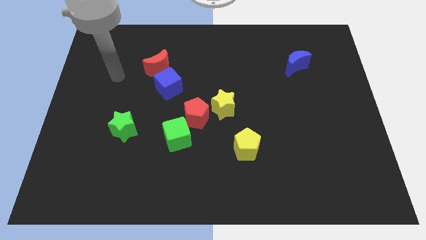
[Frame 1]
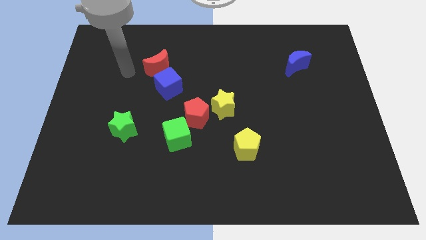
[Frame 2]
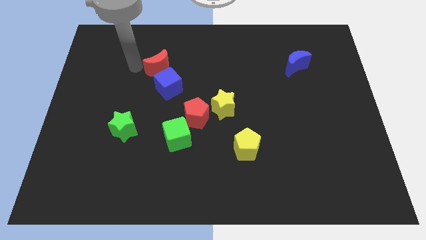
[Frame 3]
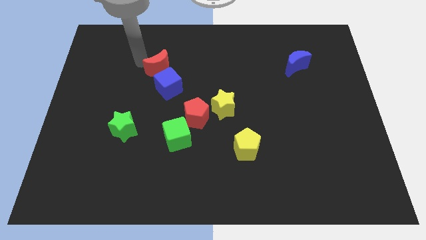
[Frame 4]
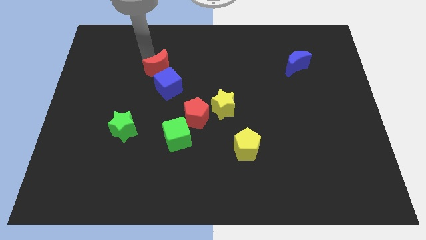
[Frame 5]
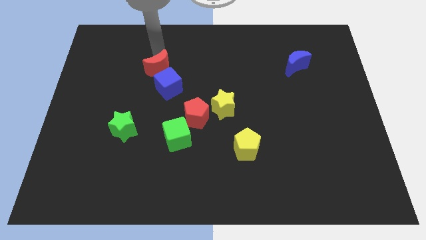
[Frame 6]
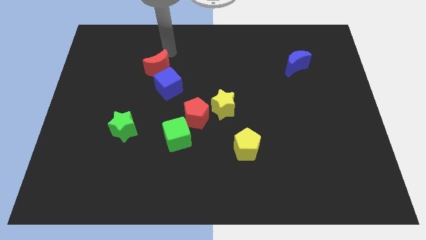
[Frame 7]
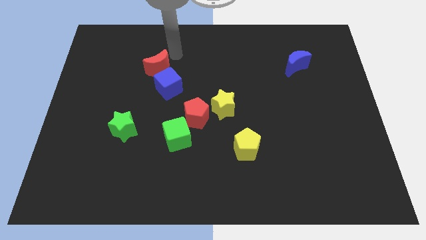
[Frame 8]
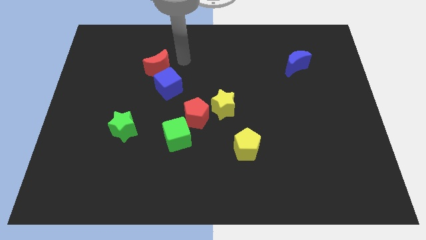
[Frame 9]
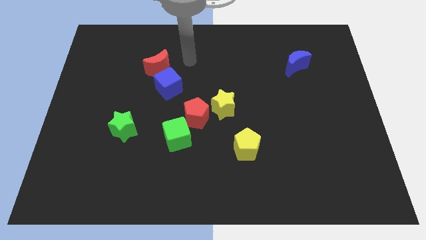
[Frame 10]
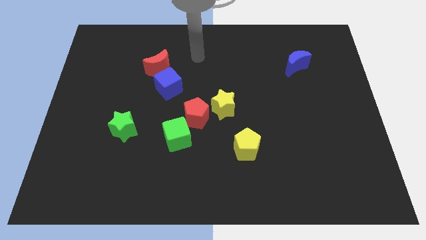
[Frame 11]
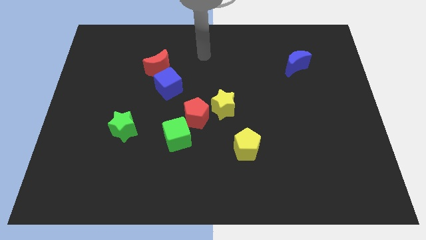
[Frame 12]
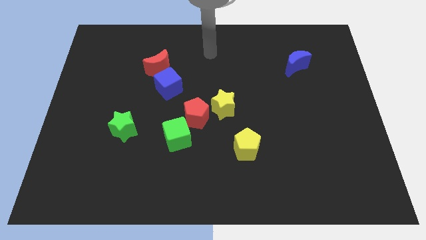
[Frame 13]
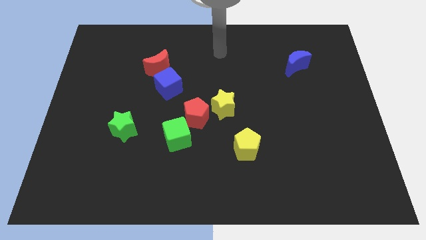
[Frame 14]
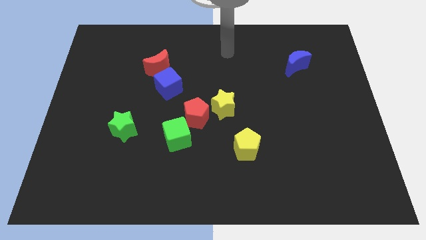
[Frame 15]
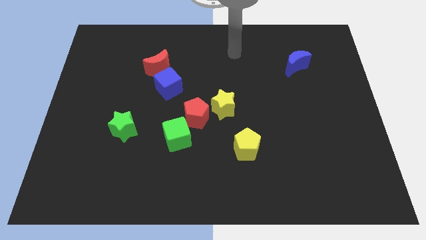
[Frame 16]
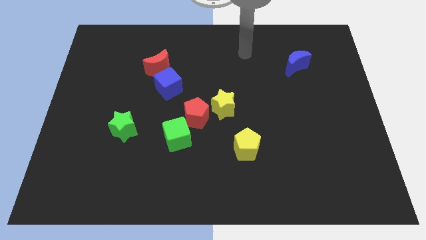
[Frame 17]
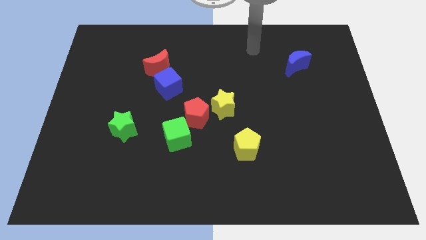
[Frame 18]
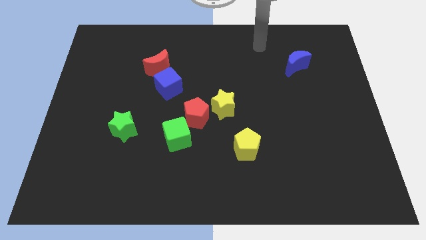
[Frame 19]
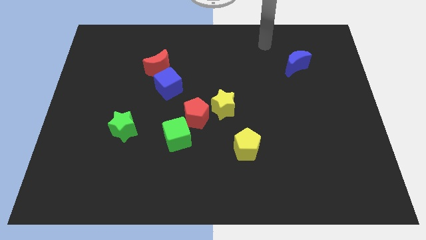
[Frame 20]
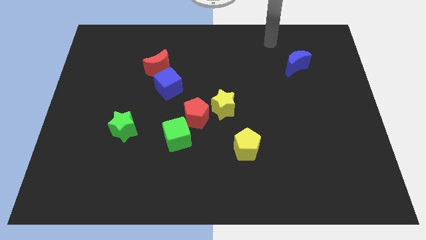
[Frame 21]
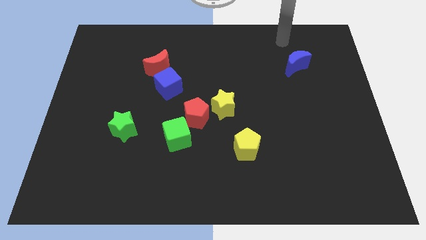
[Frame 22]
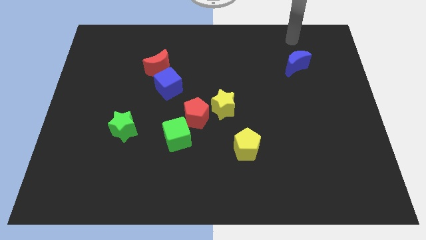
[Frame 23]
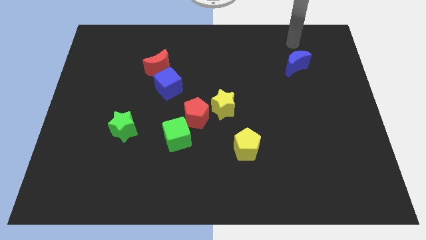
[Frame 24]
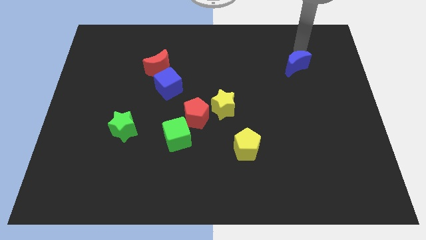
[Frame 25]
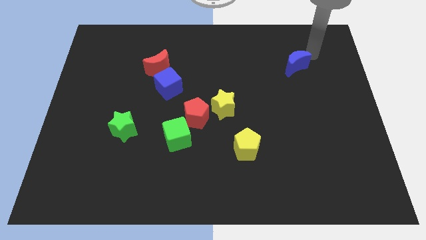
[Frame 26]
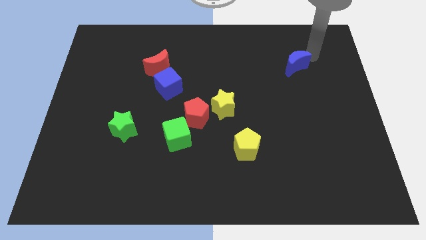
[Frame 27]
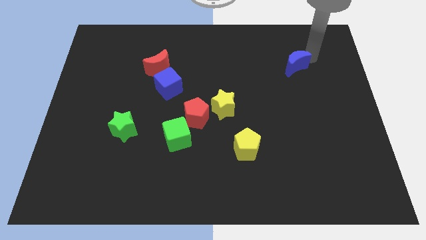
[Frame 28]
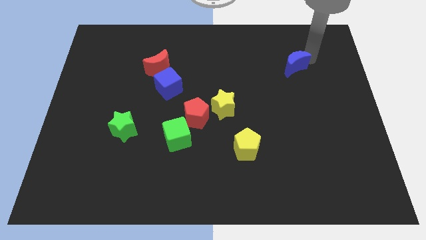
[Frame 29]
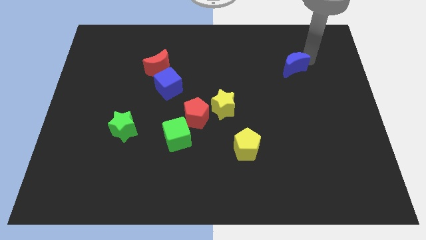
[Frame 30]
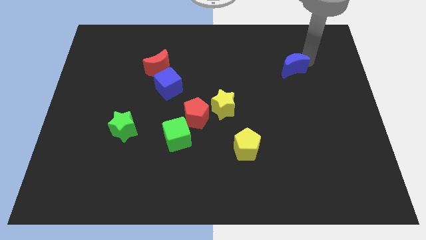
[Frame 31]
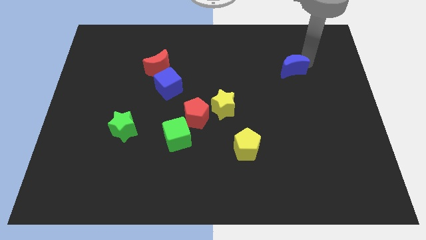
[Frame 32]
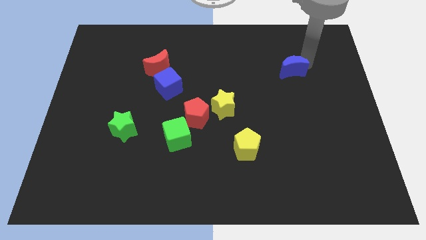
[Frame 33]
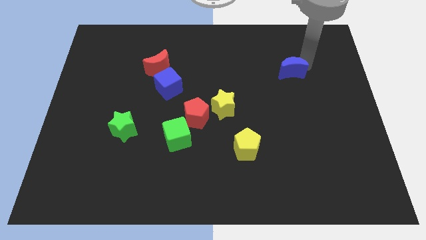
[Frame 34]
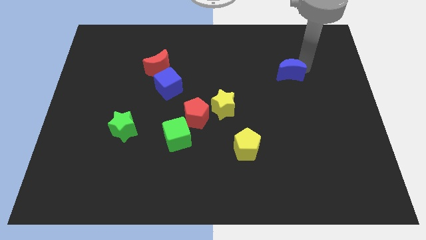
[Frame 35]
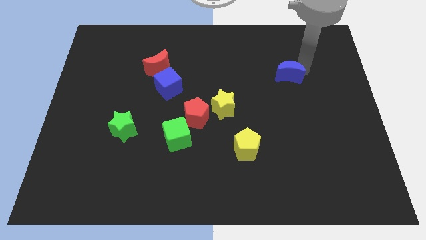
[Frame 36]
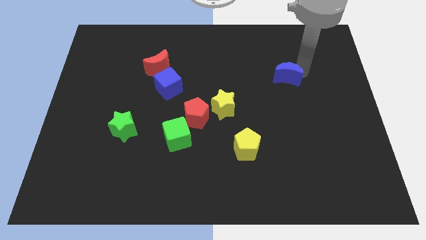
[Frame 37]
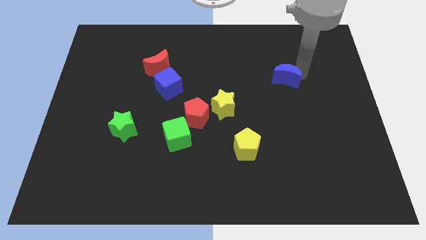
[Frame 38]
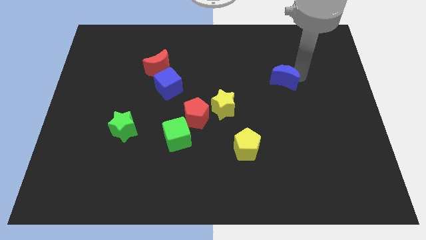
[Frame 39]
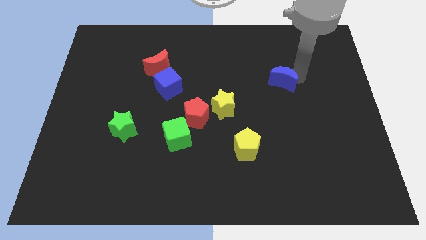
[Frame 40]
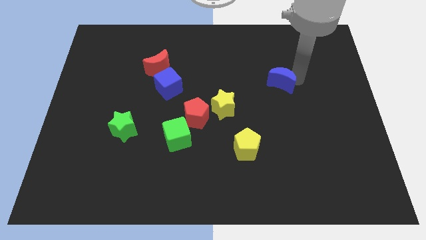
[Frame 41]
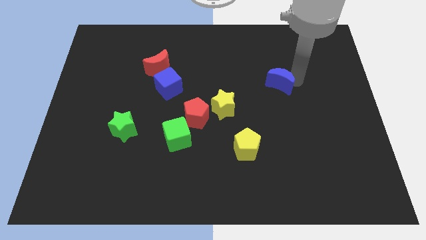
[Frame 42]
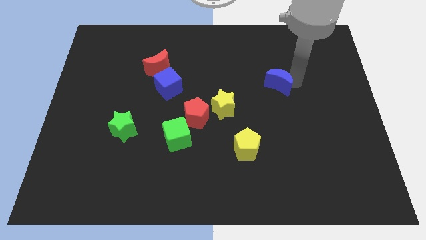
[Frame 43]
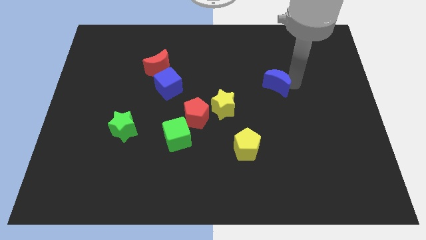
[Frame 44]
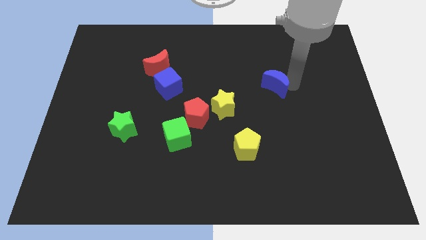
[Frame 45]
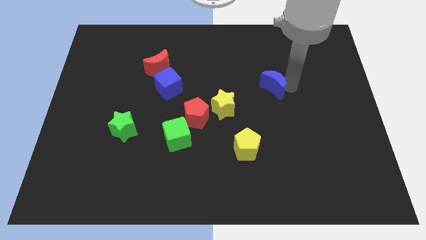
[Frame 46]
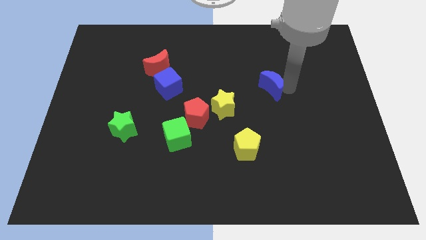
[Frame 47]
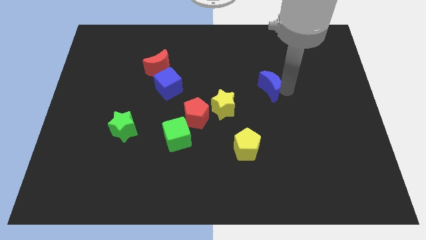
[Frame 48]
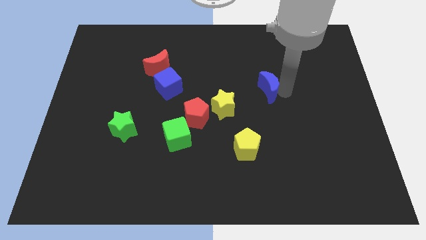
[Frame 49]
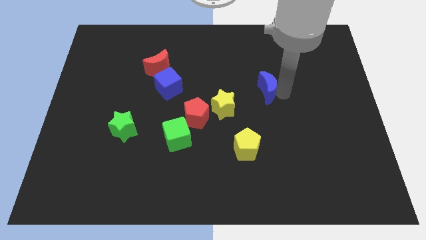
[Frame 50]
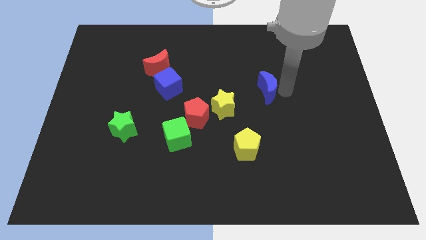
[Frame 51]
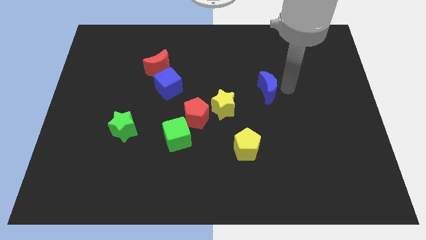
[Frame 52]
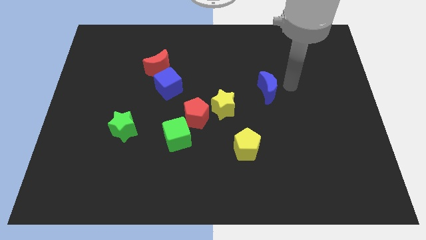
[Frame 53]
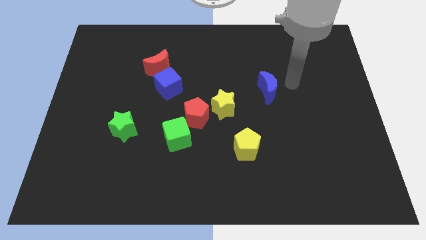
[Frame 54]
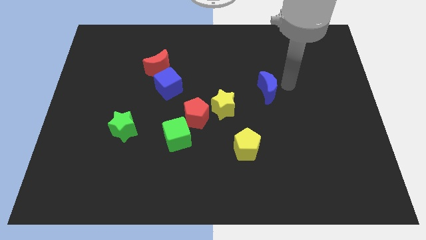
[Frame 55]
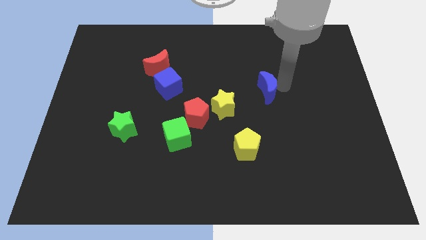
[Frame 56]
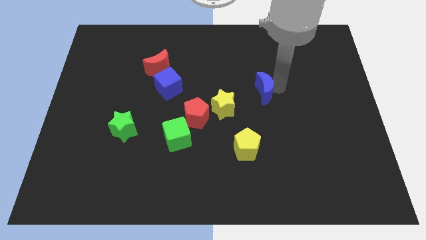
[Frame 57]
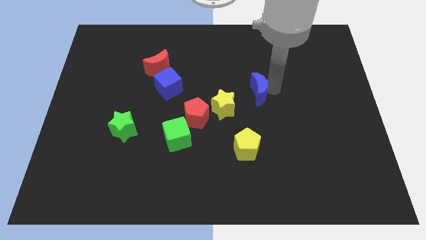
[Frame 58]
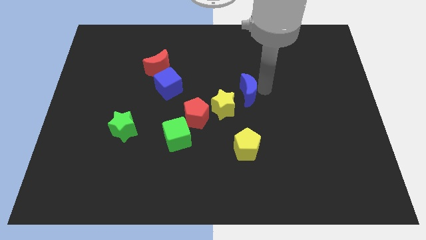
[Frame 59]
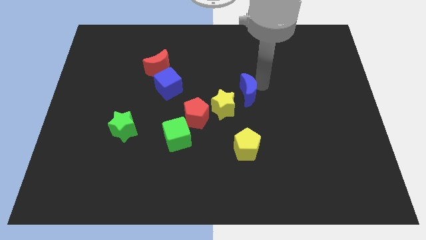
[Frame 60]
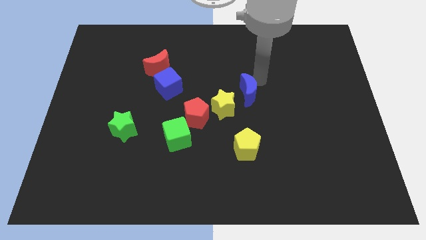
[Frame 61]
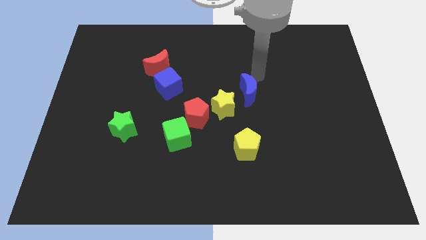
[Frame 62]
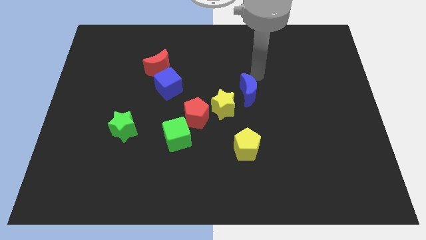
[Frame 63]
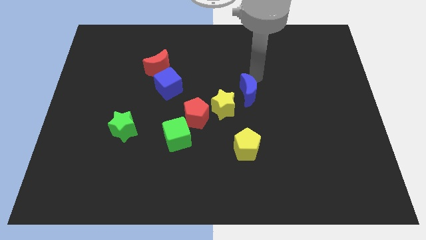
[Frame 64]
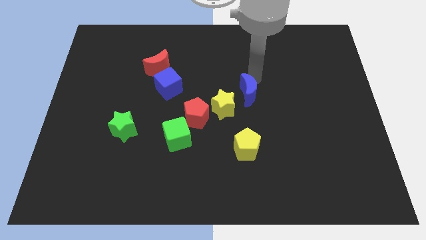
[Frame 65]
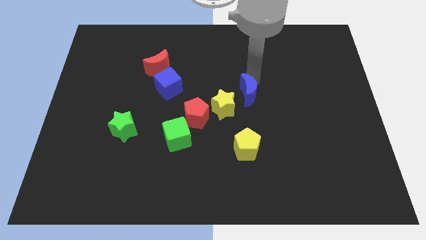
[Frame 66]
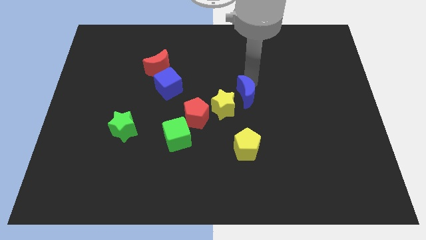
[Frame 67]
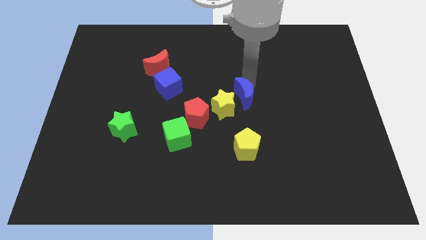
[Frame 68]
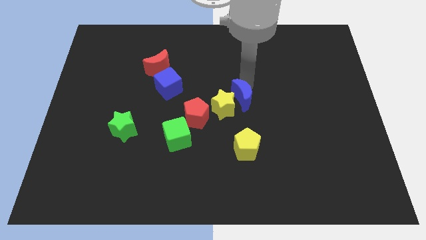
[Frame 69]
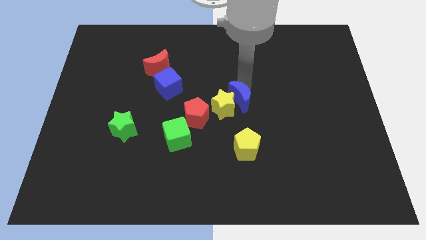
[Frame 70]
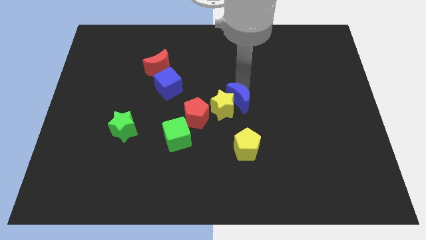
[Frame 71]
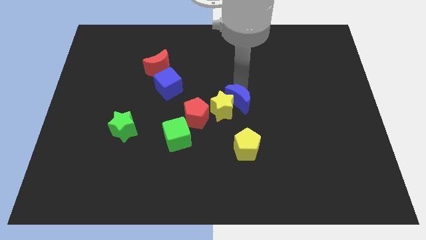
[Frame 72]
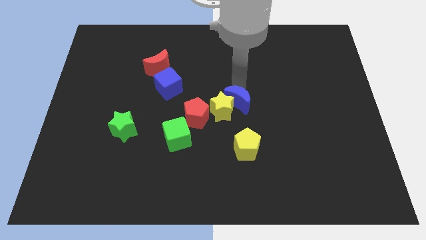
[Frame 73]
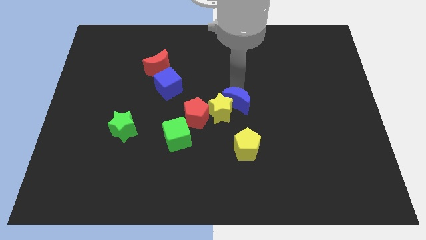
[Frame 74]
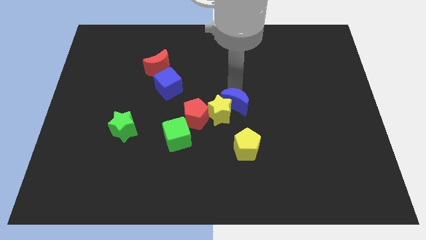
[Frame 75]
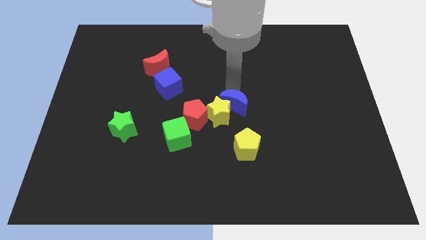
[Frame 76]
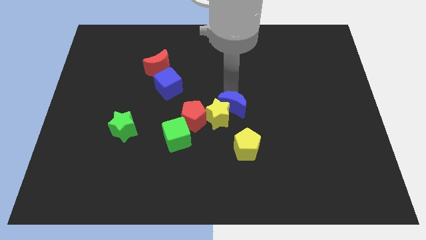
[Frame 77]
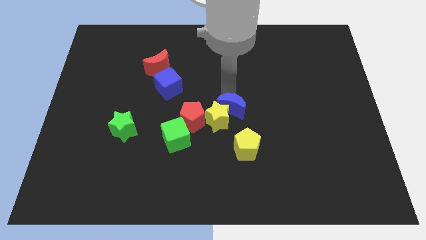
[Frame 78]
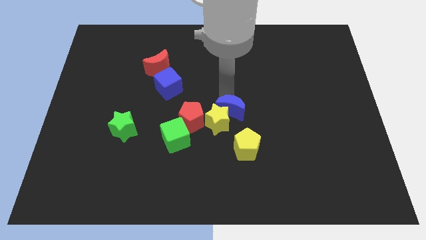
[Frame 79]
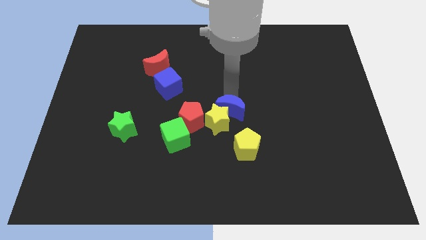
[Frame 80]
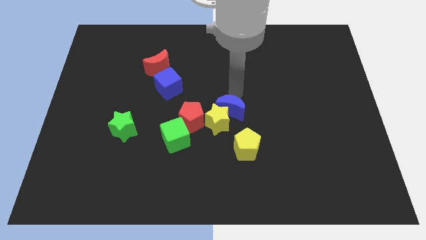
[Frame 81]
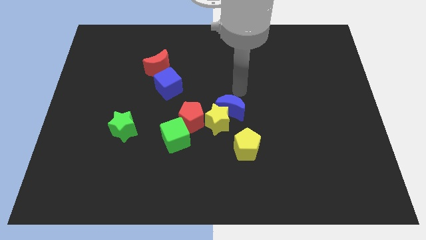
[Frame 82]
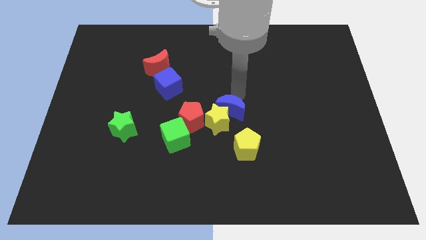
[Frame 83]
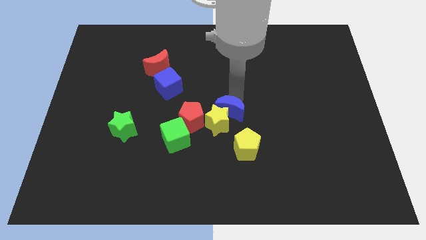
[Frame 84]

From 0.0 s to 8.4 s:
push the blue moon to the top left of the yellow pentagon
